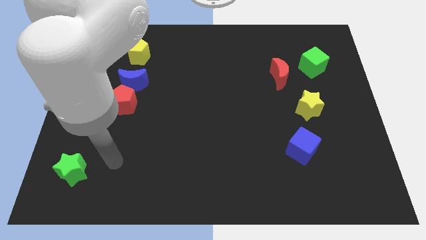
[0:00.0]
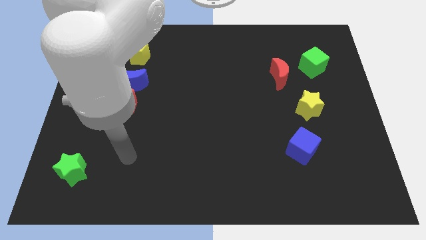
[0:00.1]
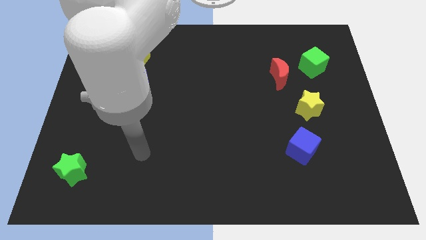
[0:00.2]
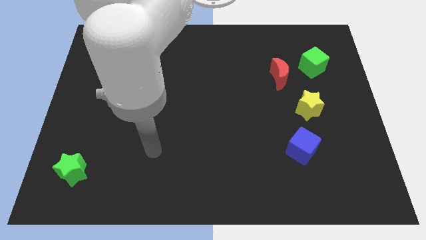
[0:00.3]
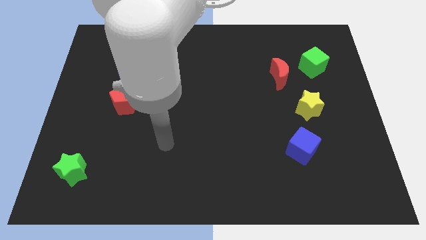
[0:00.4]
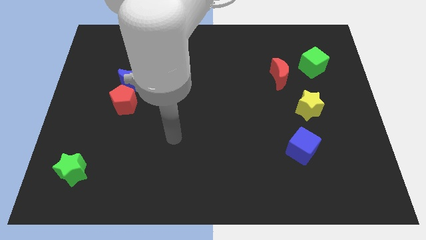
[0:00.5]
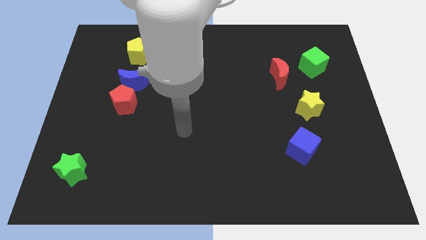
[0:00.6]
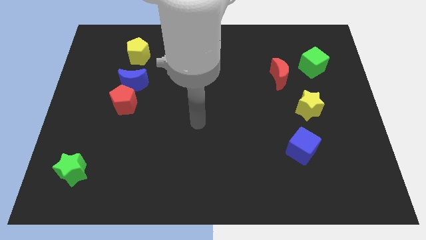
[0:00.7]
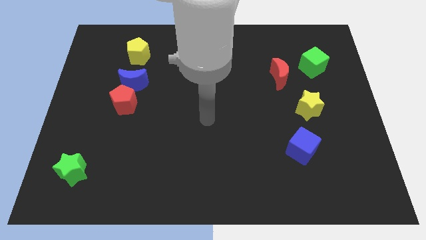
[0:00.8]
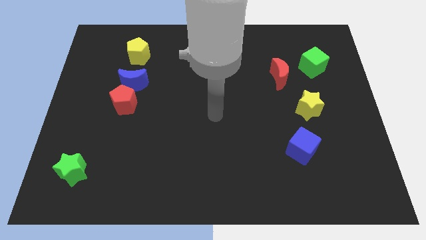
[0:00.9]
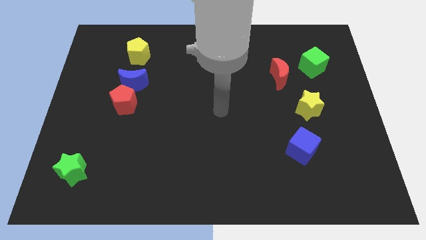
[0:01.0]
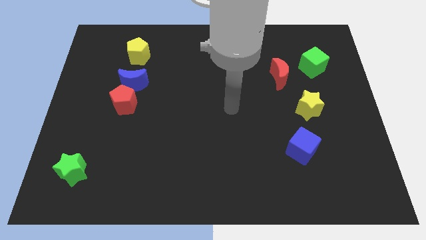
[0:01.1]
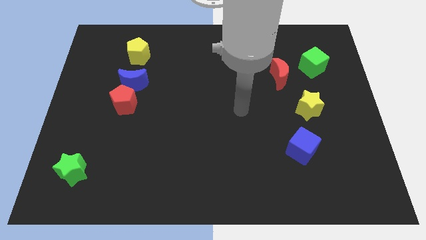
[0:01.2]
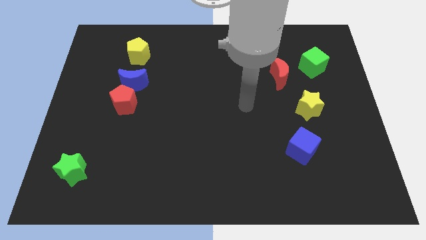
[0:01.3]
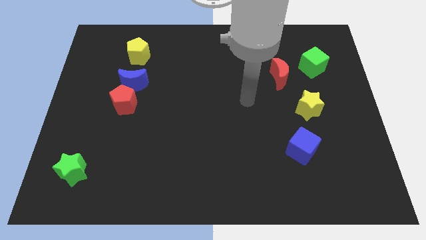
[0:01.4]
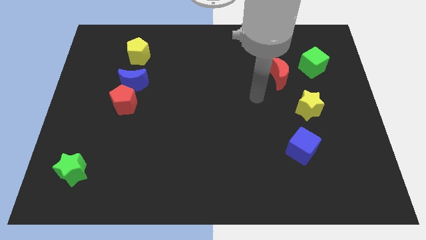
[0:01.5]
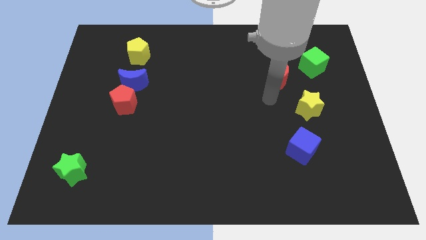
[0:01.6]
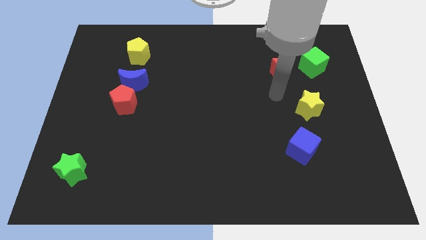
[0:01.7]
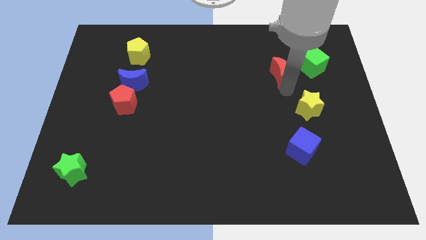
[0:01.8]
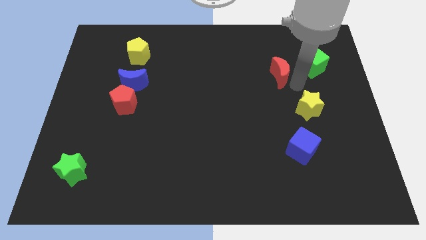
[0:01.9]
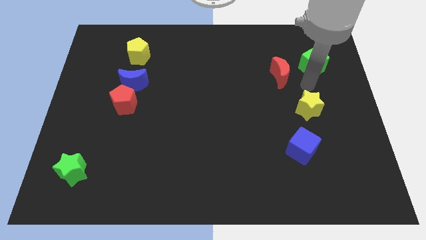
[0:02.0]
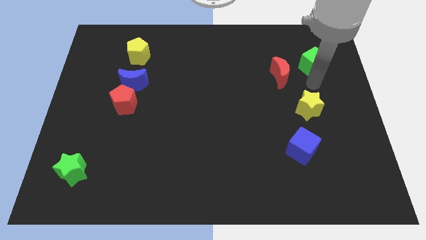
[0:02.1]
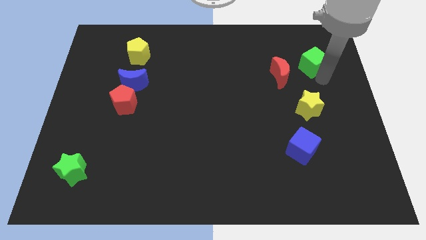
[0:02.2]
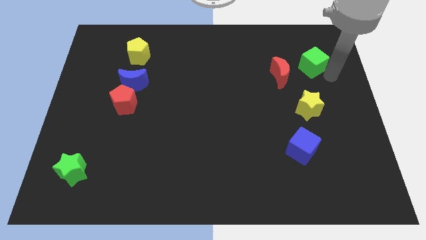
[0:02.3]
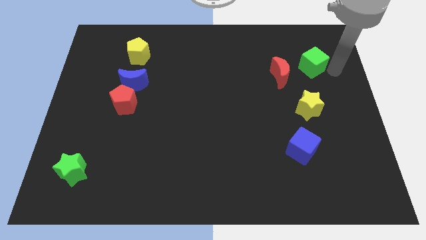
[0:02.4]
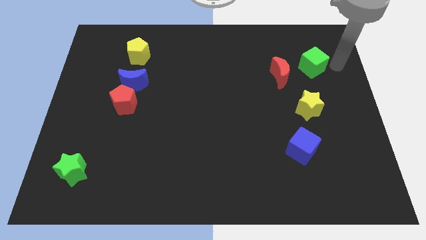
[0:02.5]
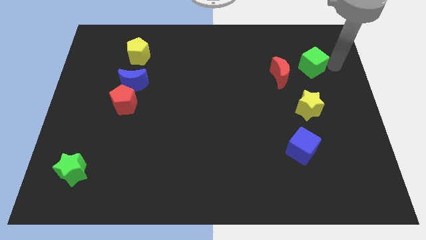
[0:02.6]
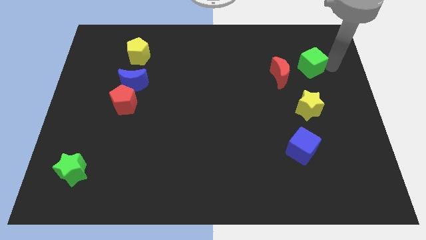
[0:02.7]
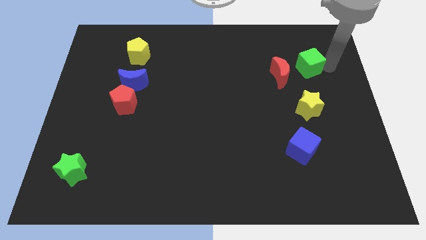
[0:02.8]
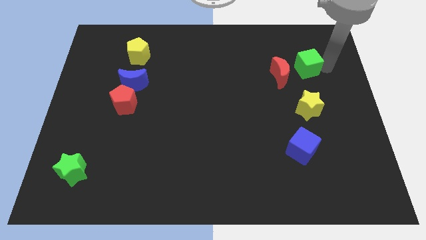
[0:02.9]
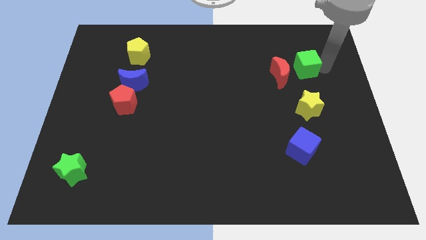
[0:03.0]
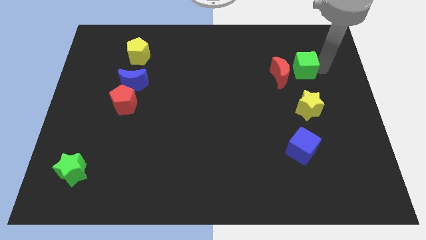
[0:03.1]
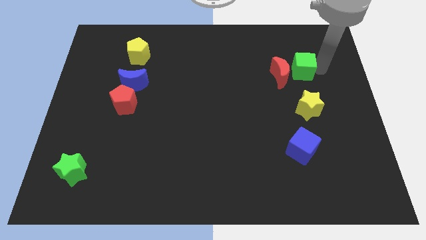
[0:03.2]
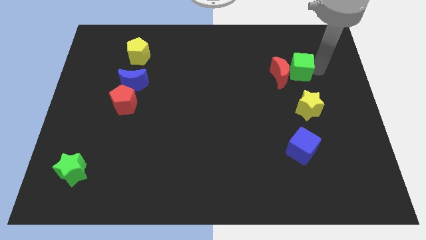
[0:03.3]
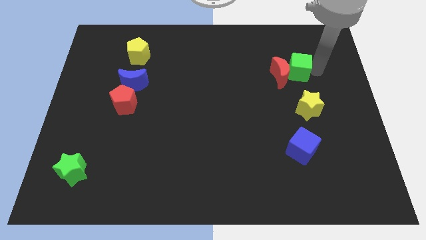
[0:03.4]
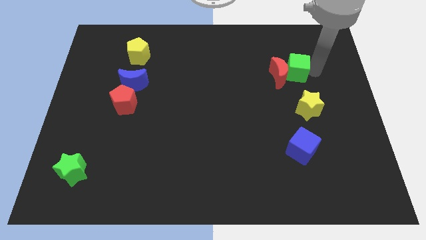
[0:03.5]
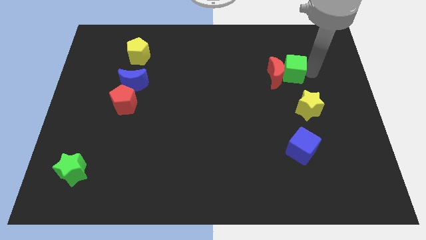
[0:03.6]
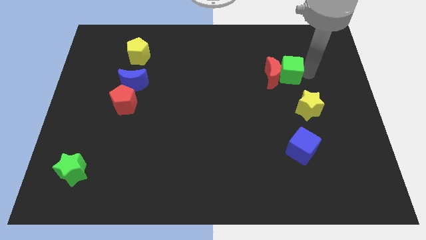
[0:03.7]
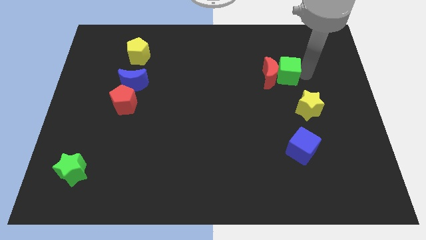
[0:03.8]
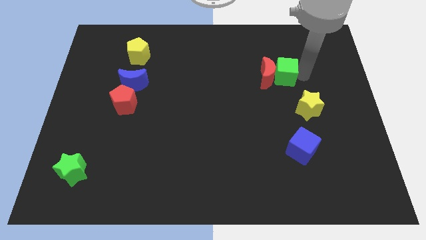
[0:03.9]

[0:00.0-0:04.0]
slightly slide the green cube left

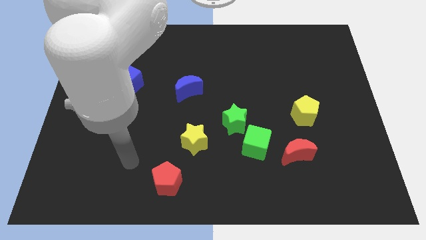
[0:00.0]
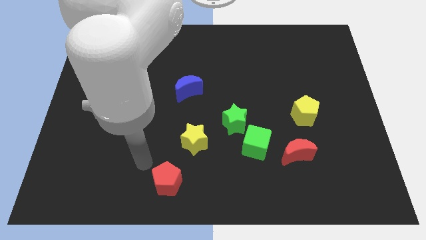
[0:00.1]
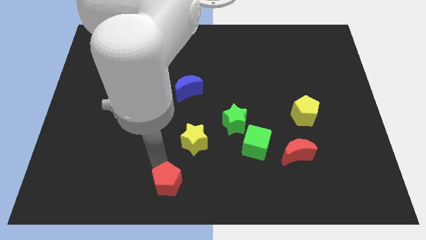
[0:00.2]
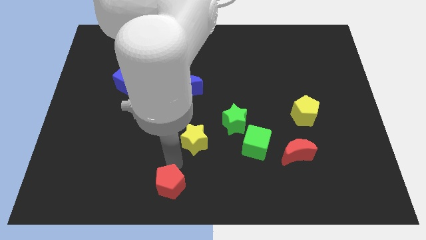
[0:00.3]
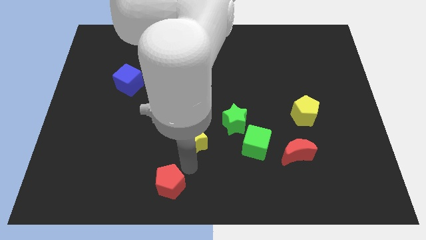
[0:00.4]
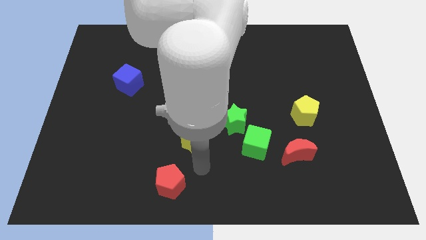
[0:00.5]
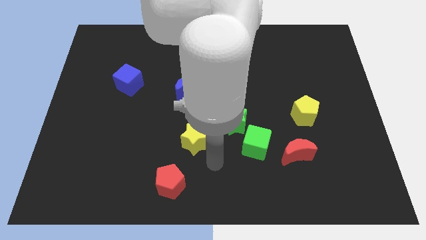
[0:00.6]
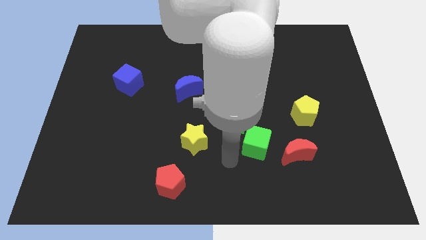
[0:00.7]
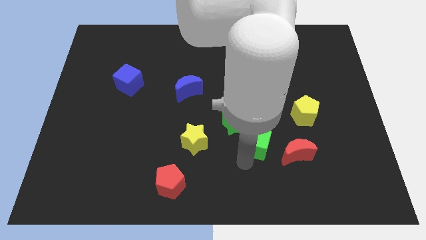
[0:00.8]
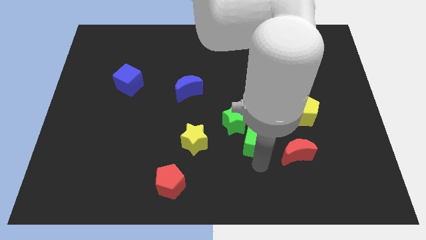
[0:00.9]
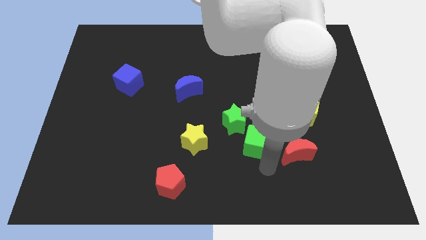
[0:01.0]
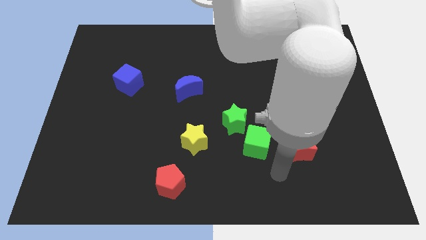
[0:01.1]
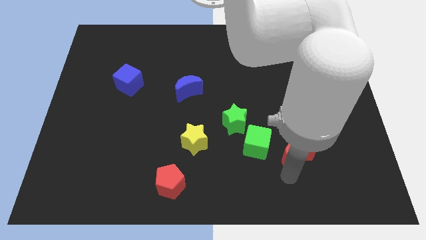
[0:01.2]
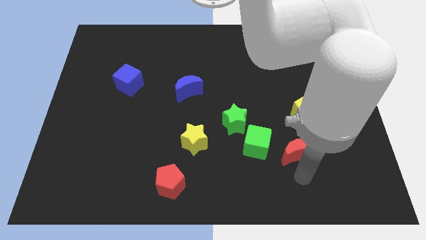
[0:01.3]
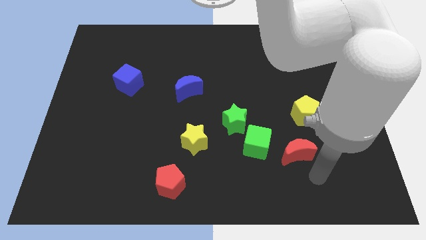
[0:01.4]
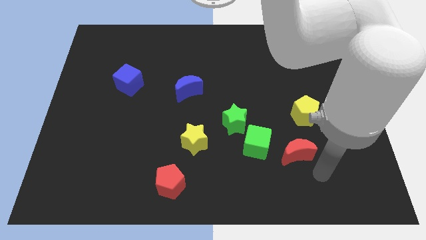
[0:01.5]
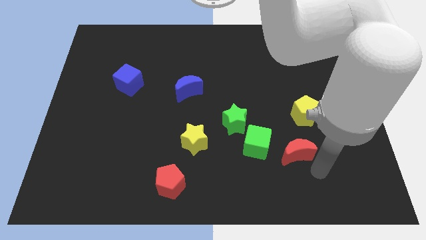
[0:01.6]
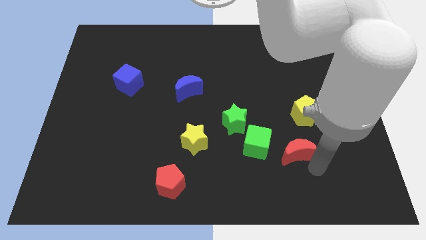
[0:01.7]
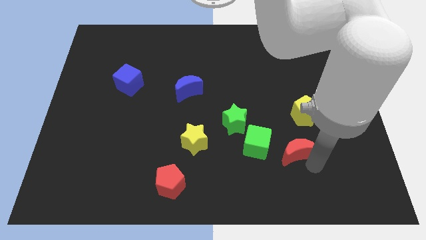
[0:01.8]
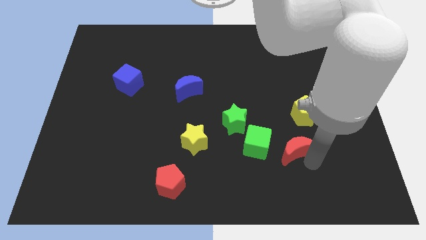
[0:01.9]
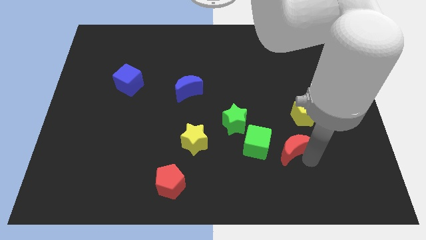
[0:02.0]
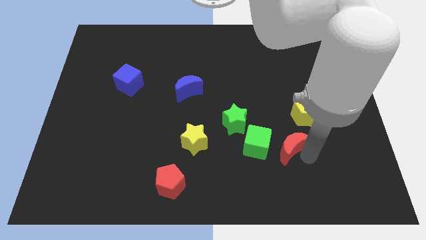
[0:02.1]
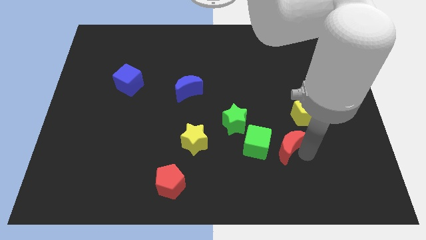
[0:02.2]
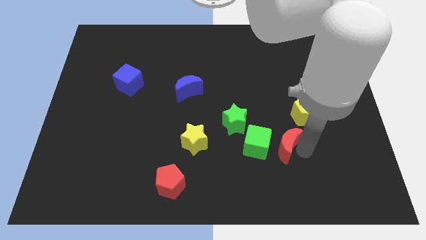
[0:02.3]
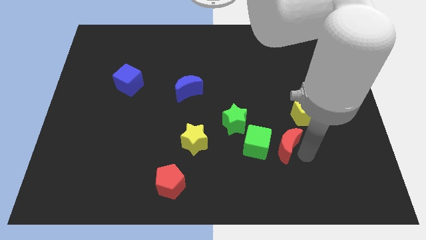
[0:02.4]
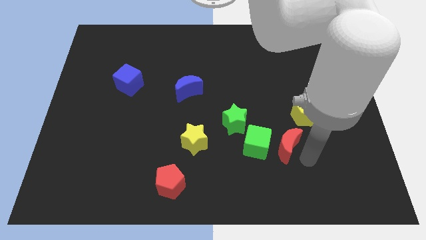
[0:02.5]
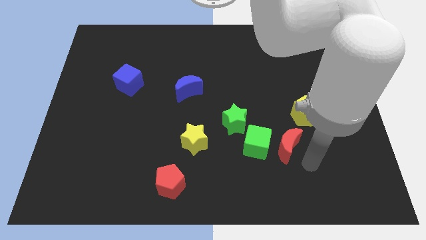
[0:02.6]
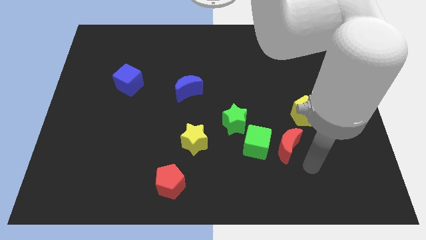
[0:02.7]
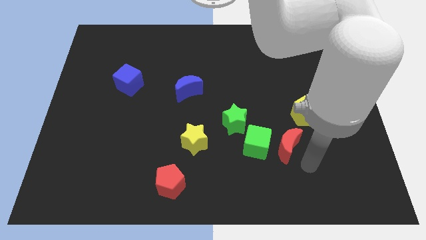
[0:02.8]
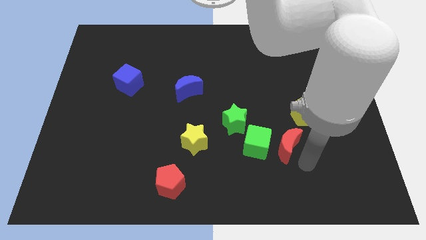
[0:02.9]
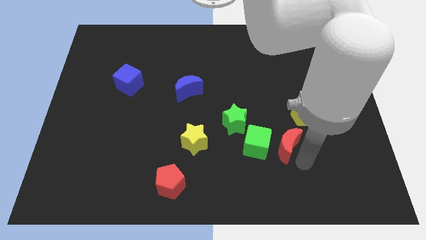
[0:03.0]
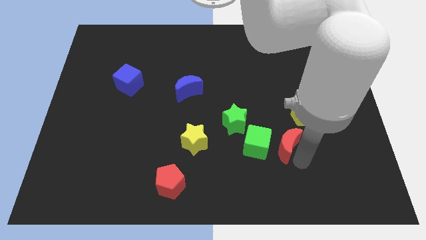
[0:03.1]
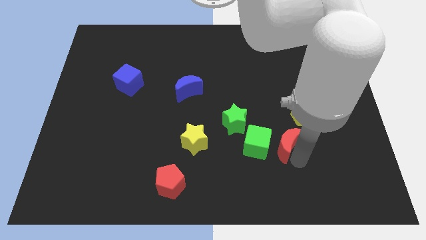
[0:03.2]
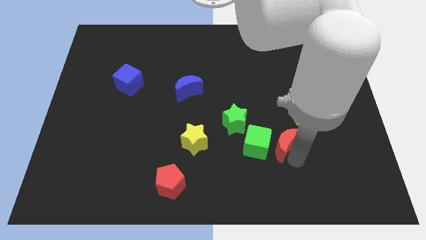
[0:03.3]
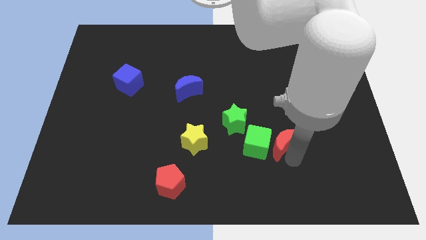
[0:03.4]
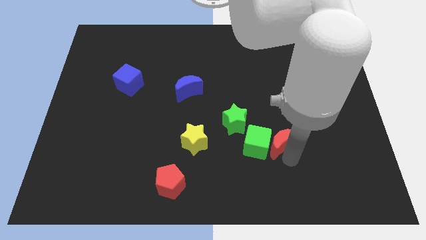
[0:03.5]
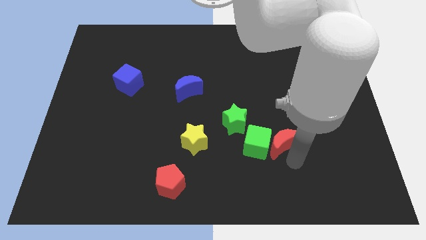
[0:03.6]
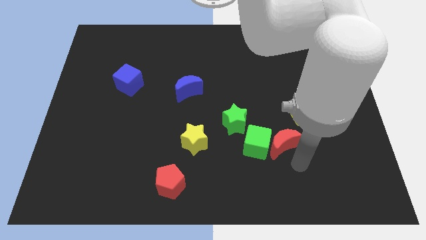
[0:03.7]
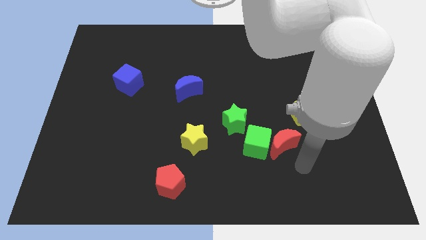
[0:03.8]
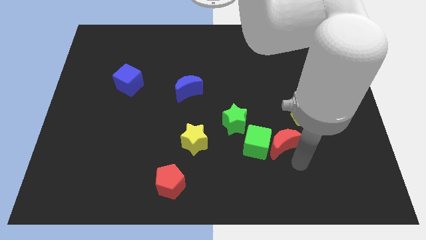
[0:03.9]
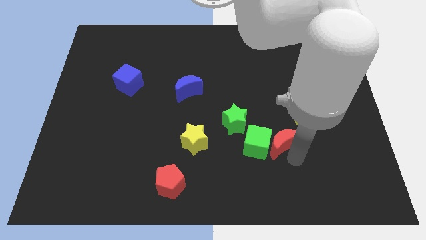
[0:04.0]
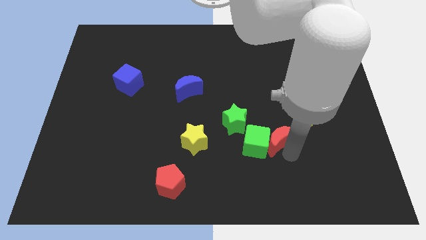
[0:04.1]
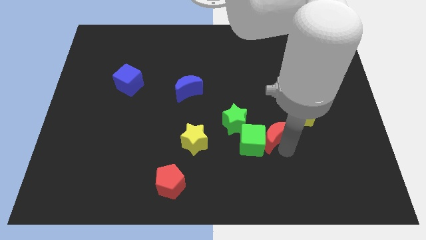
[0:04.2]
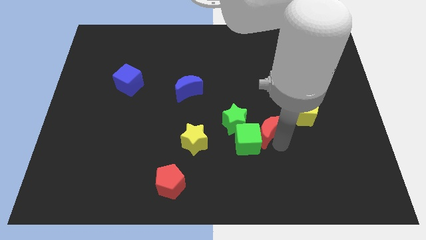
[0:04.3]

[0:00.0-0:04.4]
slide the red moon somewhat diagonally up and to the left

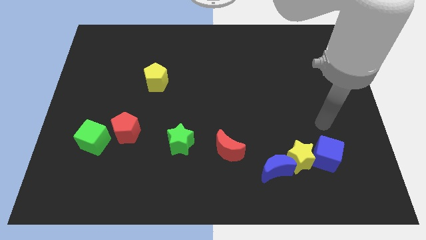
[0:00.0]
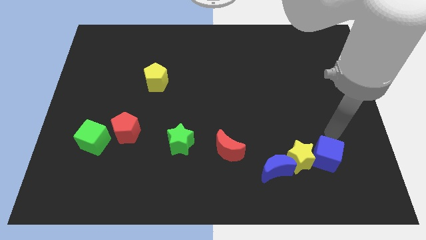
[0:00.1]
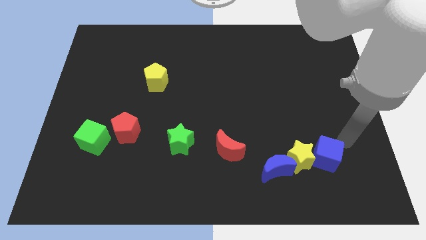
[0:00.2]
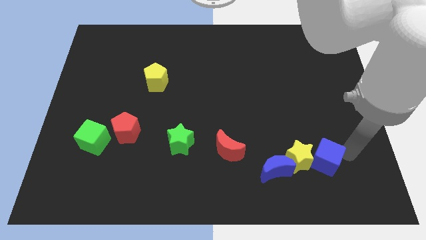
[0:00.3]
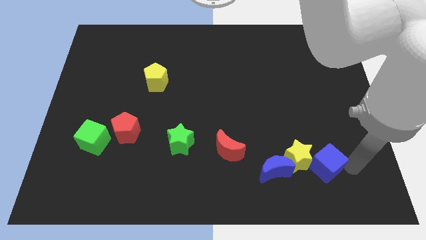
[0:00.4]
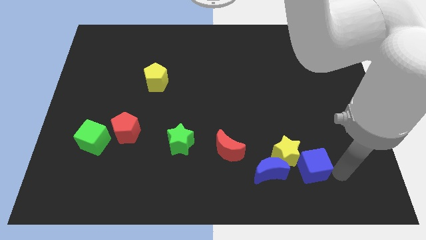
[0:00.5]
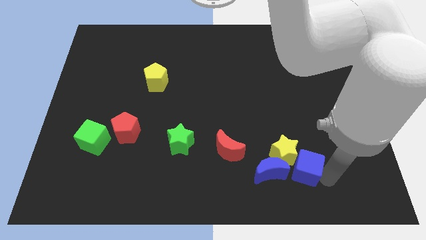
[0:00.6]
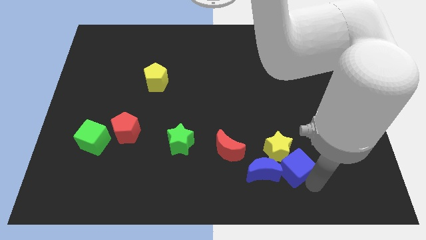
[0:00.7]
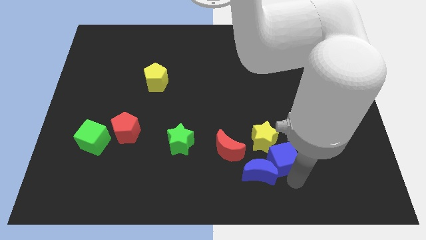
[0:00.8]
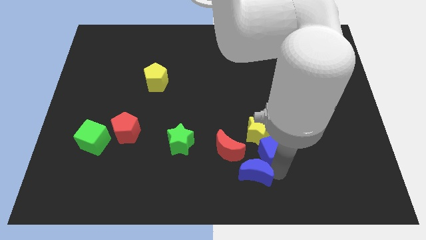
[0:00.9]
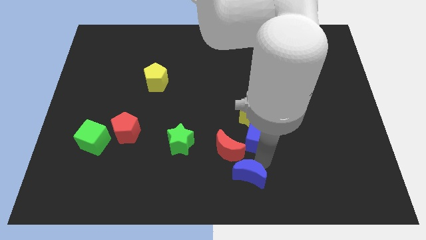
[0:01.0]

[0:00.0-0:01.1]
slightly move the yellow star upwards
